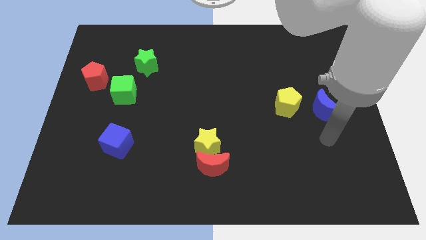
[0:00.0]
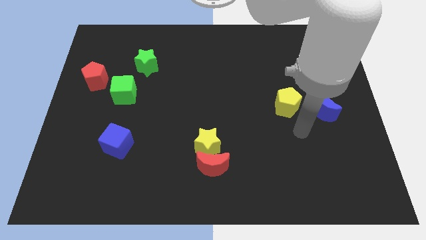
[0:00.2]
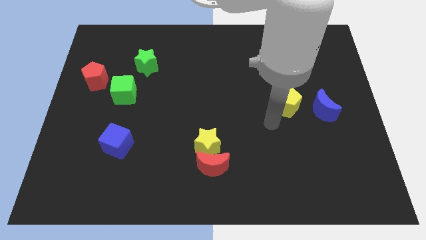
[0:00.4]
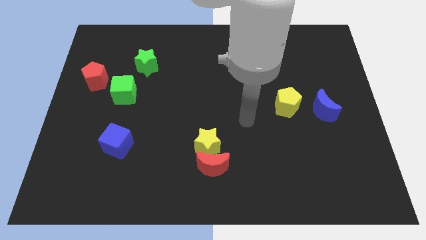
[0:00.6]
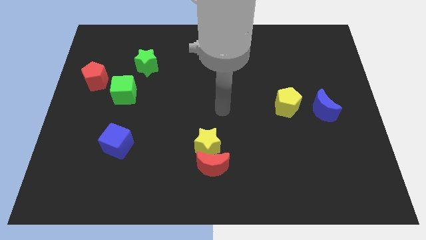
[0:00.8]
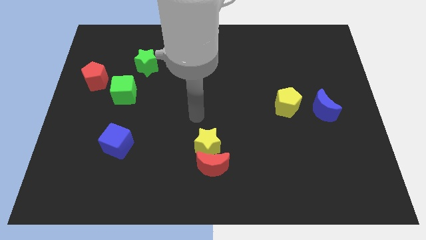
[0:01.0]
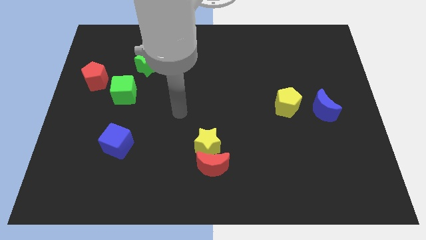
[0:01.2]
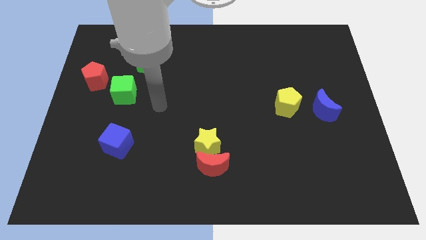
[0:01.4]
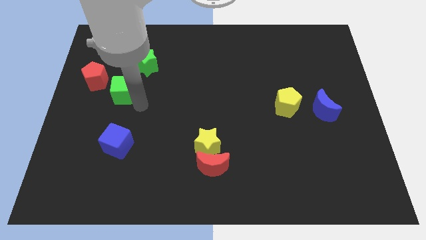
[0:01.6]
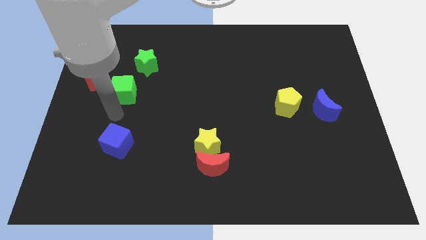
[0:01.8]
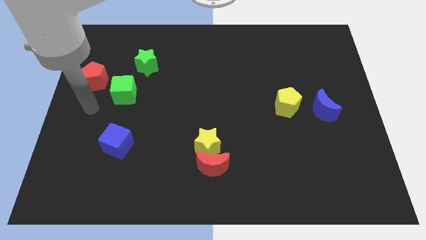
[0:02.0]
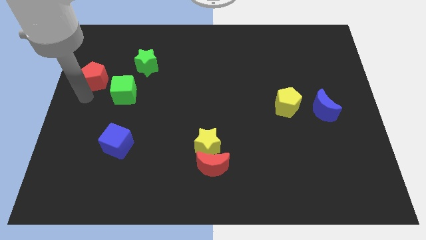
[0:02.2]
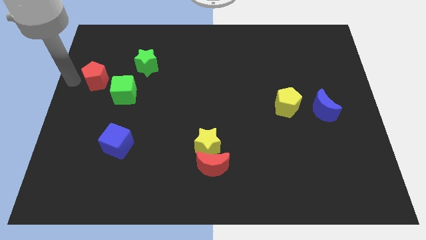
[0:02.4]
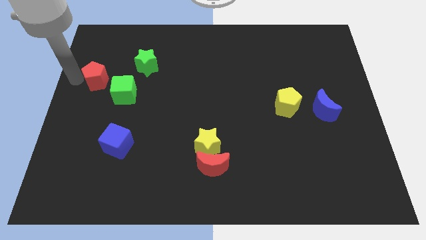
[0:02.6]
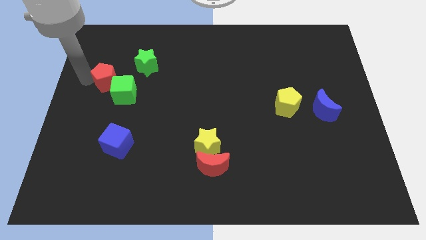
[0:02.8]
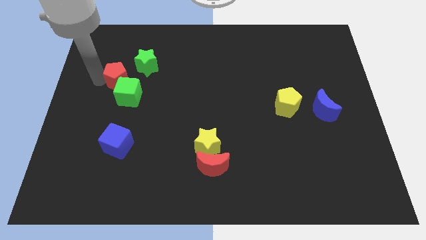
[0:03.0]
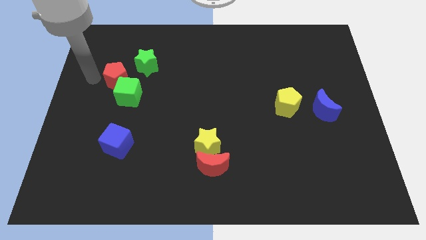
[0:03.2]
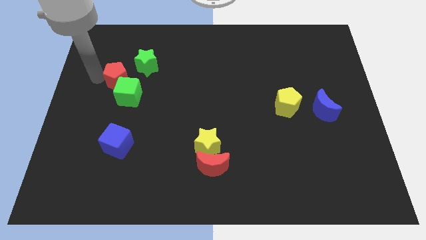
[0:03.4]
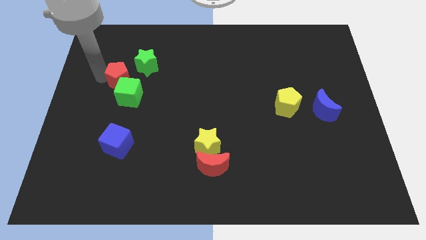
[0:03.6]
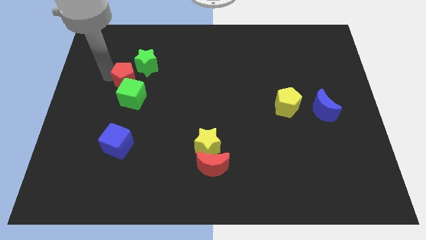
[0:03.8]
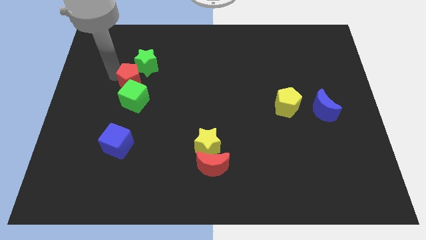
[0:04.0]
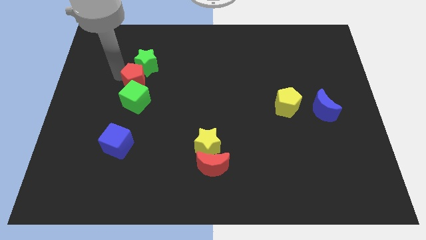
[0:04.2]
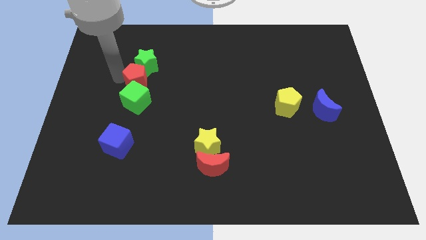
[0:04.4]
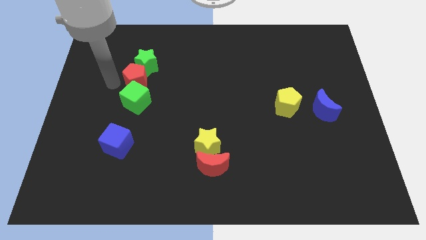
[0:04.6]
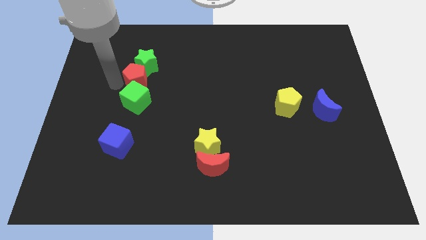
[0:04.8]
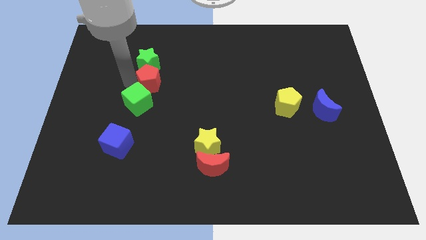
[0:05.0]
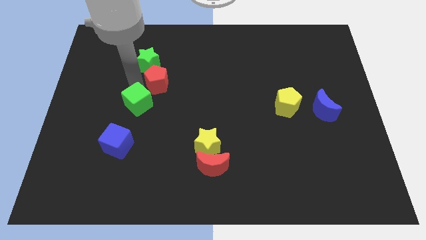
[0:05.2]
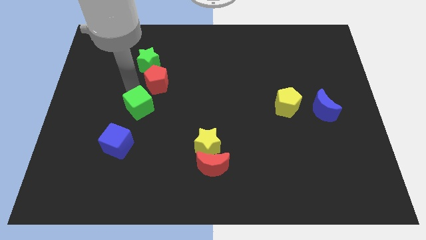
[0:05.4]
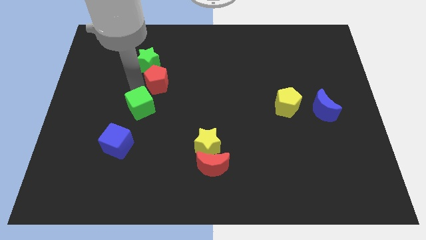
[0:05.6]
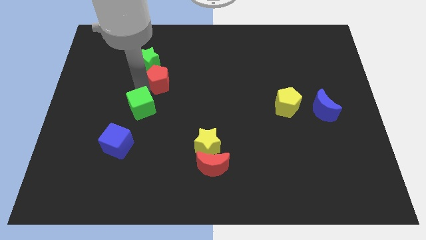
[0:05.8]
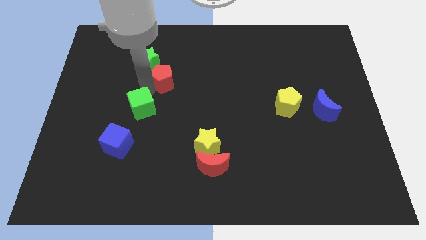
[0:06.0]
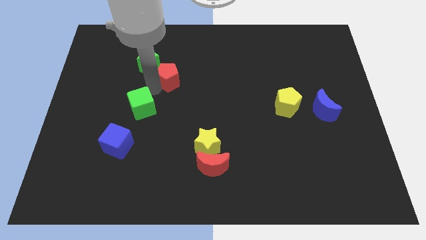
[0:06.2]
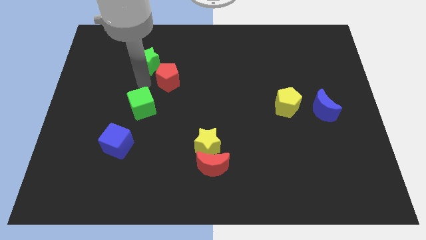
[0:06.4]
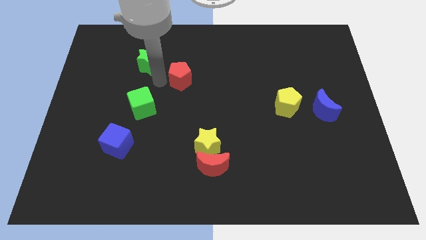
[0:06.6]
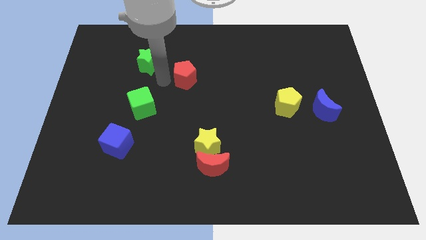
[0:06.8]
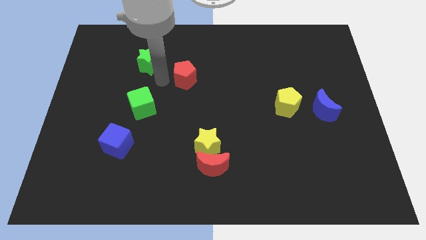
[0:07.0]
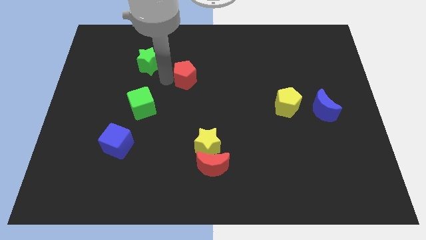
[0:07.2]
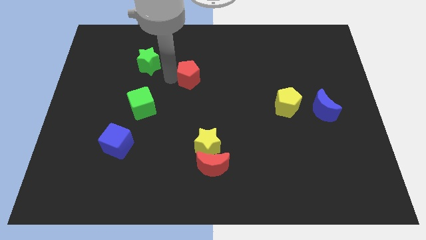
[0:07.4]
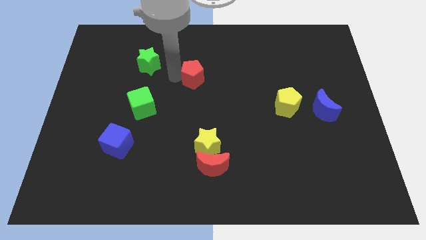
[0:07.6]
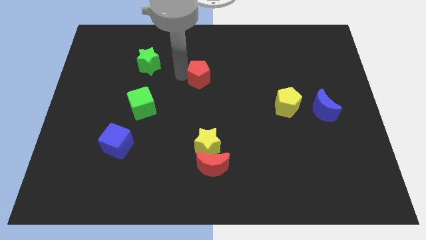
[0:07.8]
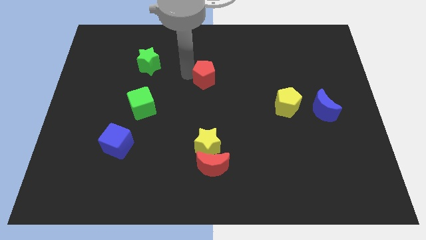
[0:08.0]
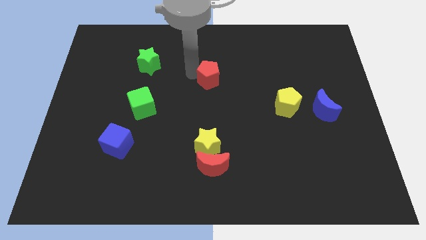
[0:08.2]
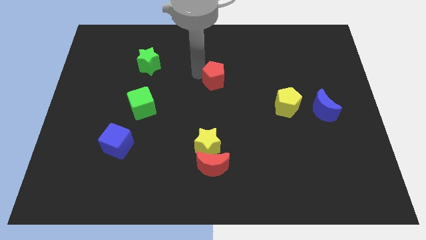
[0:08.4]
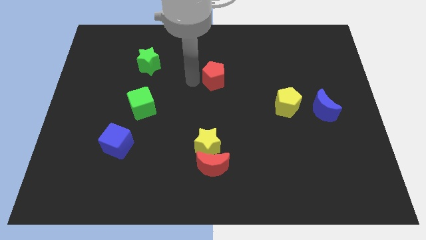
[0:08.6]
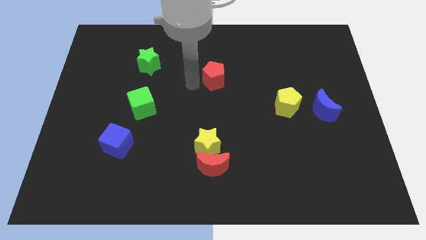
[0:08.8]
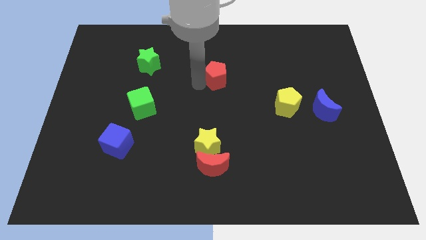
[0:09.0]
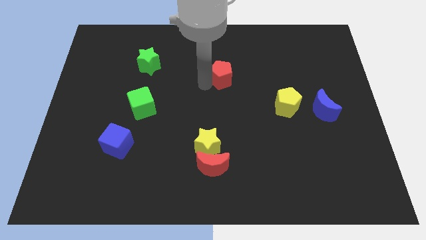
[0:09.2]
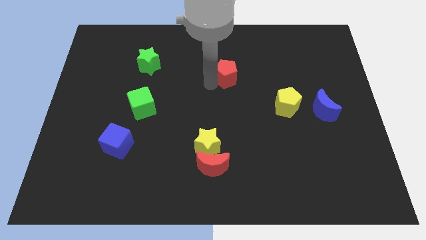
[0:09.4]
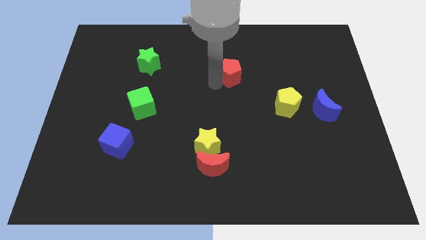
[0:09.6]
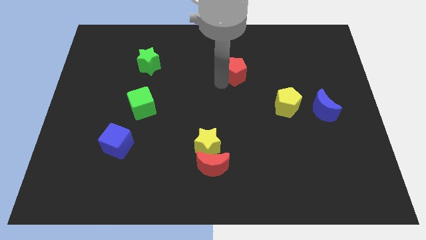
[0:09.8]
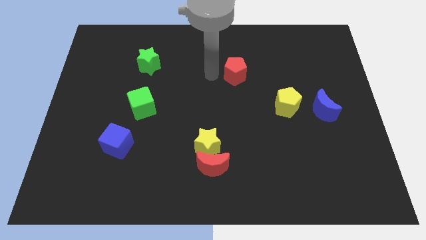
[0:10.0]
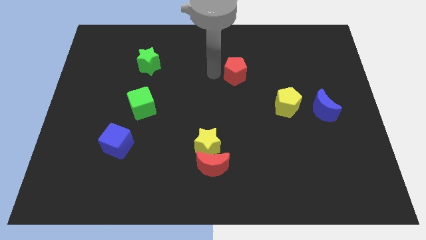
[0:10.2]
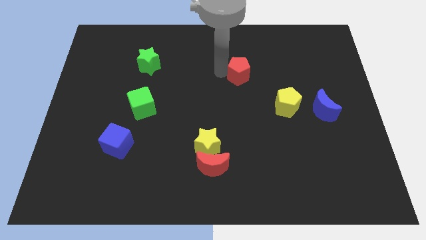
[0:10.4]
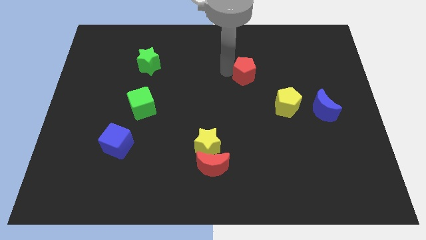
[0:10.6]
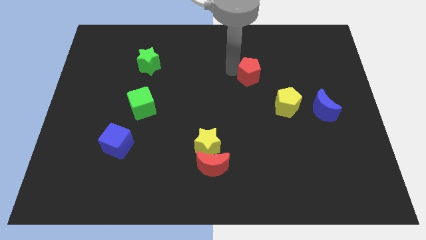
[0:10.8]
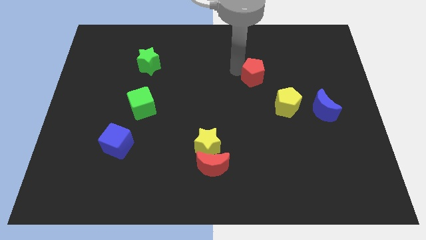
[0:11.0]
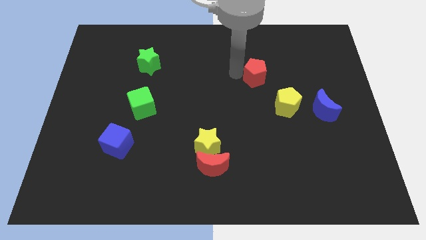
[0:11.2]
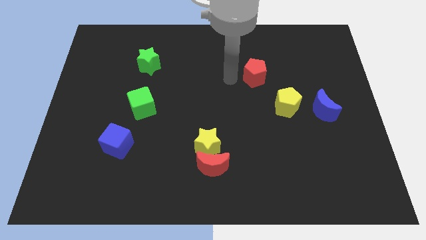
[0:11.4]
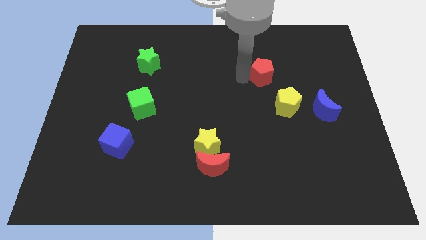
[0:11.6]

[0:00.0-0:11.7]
slide the red pentagon above the yellow pentagon

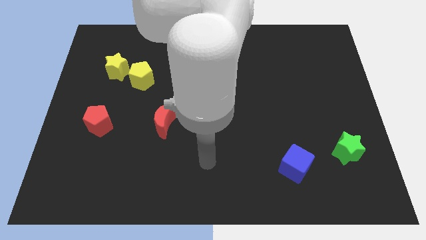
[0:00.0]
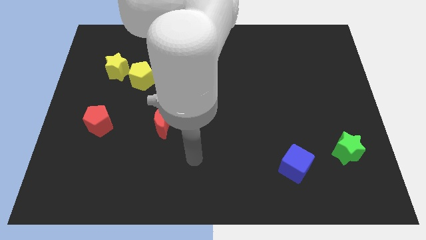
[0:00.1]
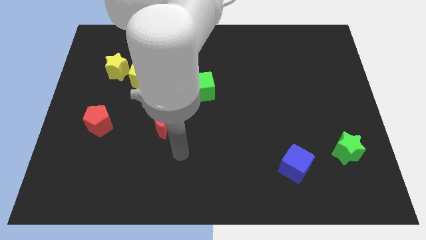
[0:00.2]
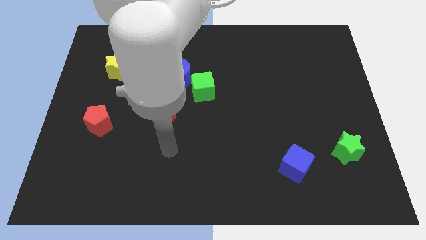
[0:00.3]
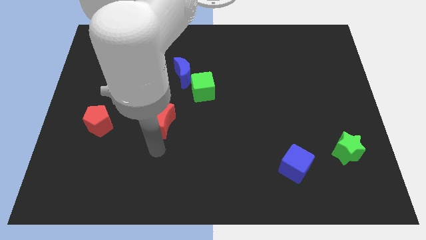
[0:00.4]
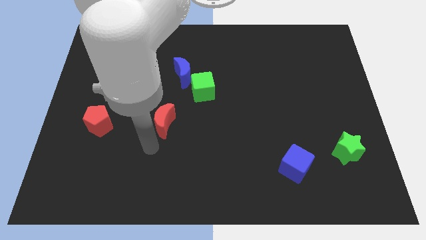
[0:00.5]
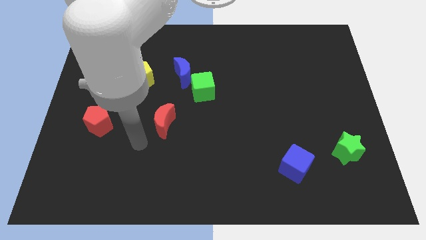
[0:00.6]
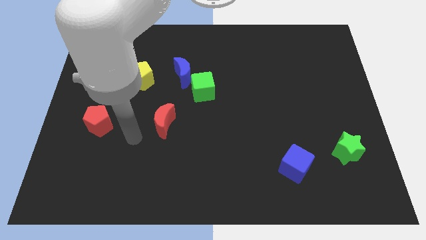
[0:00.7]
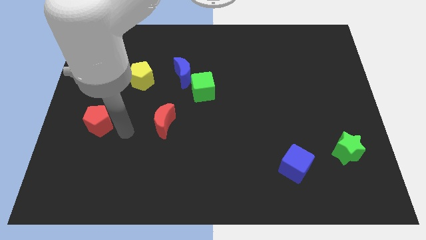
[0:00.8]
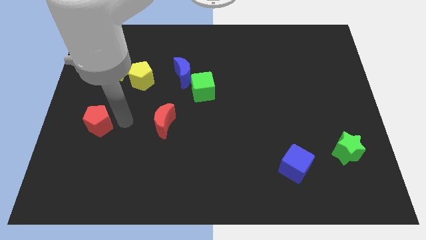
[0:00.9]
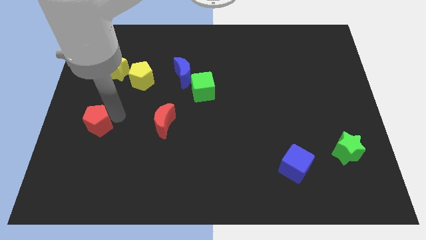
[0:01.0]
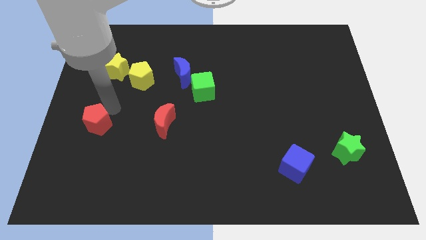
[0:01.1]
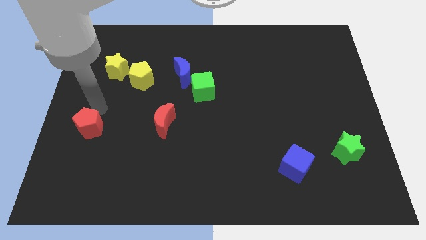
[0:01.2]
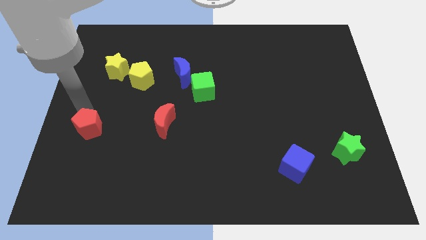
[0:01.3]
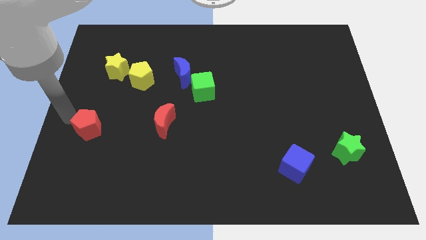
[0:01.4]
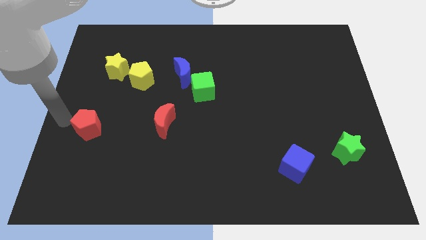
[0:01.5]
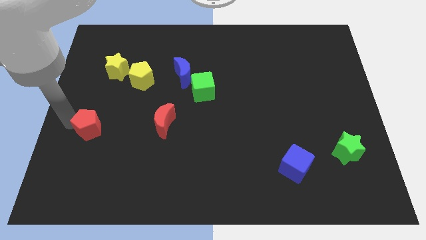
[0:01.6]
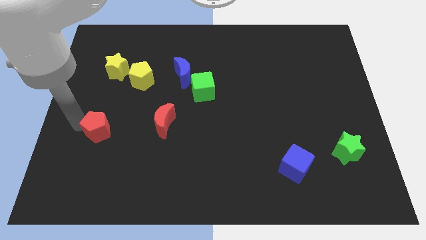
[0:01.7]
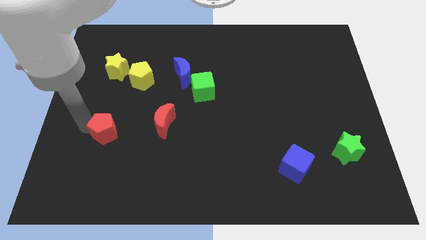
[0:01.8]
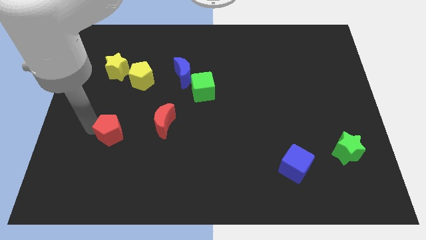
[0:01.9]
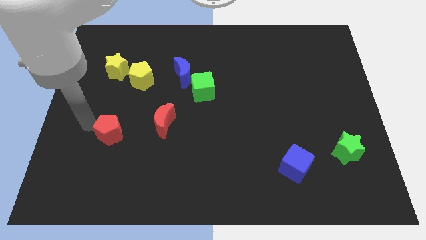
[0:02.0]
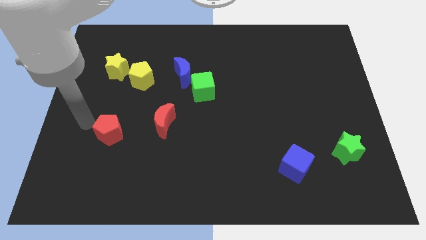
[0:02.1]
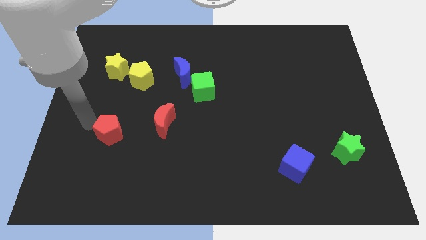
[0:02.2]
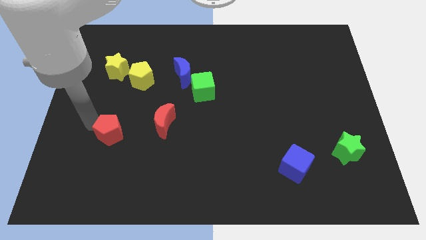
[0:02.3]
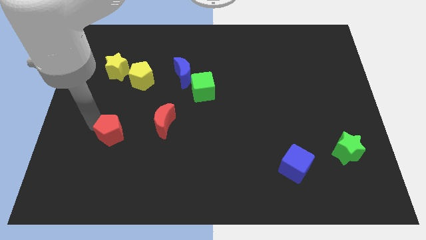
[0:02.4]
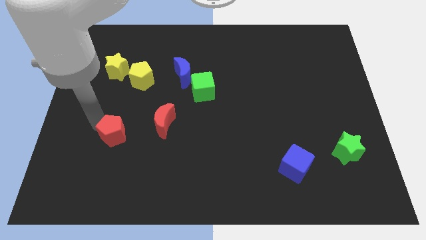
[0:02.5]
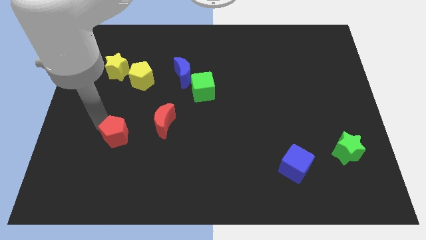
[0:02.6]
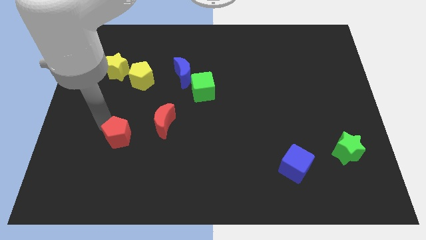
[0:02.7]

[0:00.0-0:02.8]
push the red pentagon to the bottom left side of the red moon
